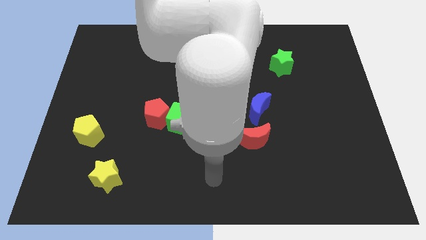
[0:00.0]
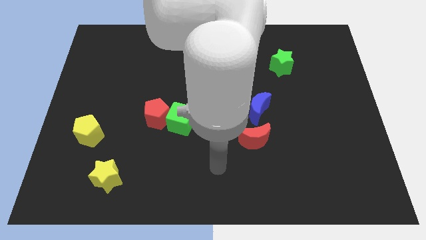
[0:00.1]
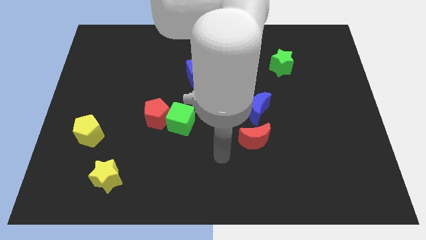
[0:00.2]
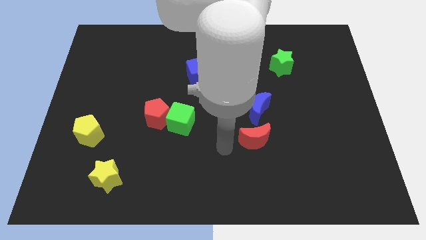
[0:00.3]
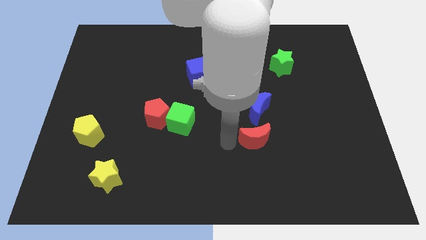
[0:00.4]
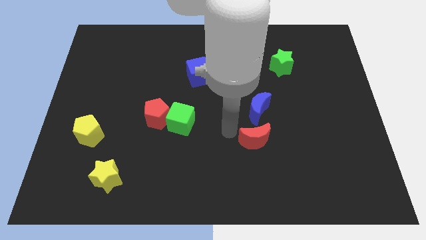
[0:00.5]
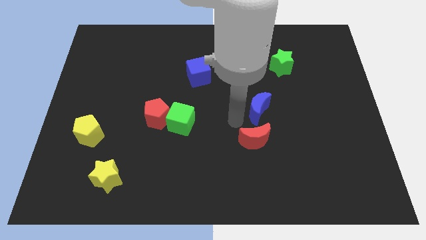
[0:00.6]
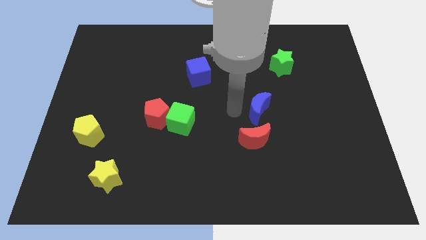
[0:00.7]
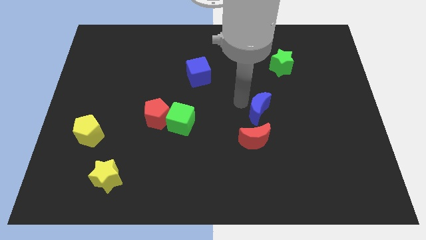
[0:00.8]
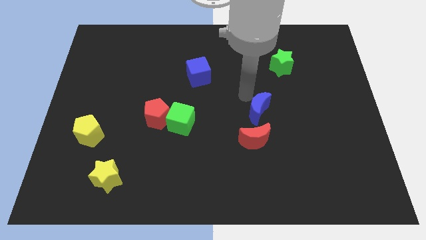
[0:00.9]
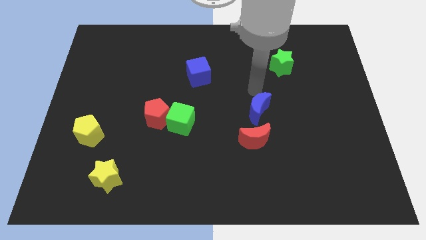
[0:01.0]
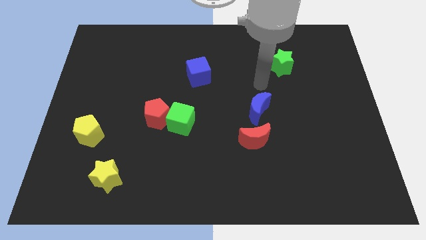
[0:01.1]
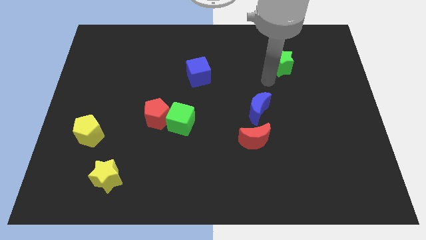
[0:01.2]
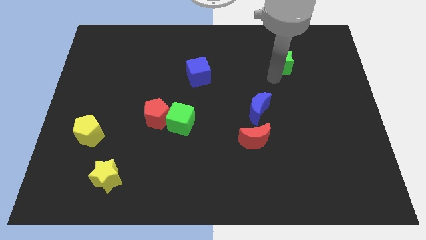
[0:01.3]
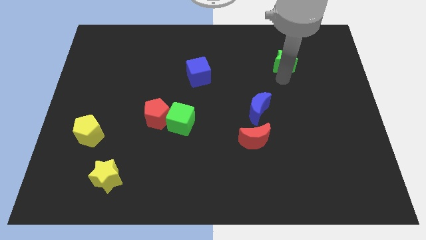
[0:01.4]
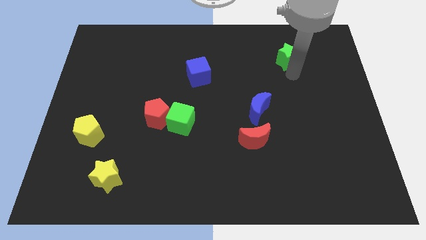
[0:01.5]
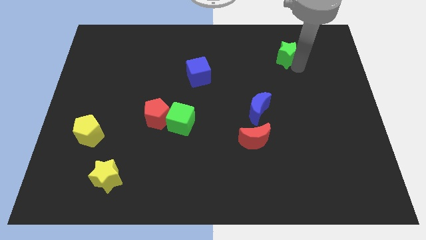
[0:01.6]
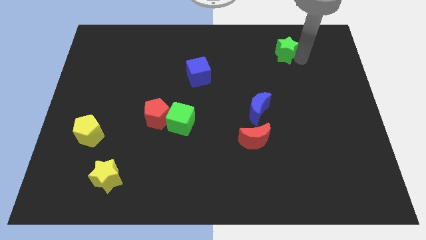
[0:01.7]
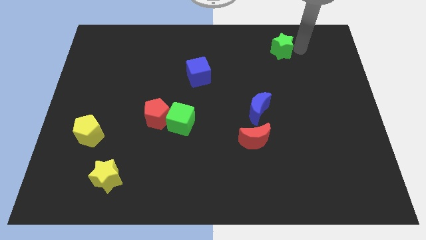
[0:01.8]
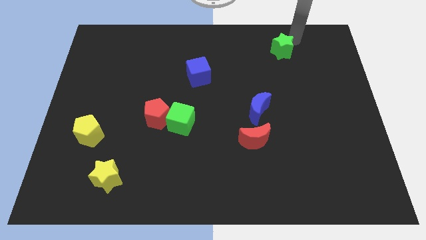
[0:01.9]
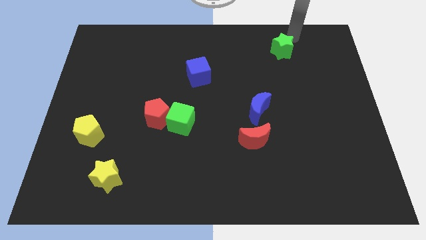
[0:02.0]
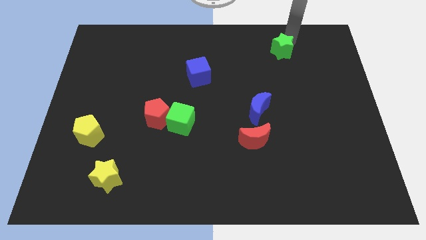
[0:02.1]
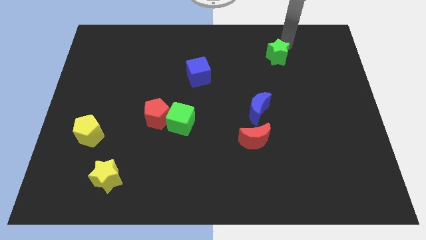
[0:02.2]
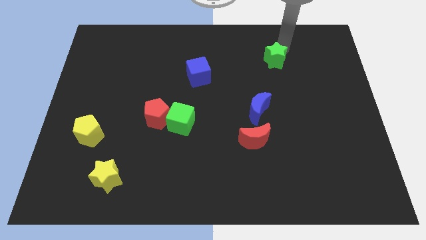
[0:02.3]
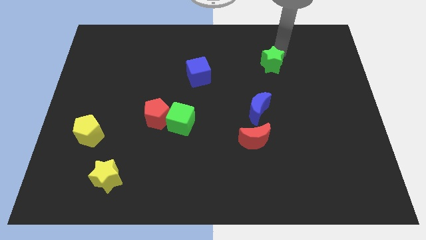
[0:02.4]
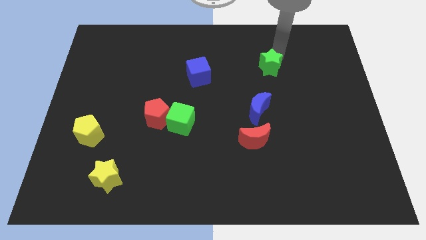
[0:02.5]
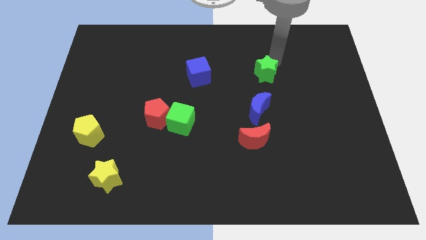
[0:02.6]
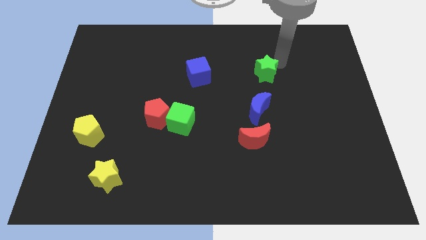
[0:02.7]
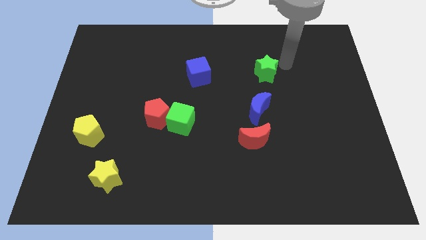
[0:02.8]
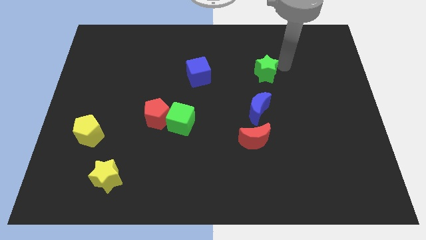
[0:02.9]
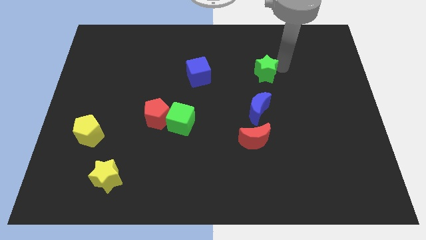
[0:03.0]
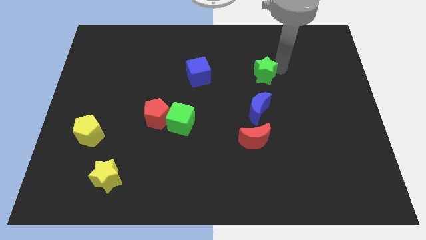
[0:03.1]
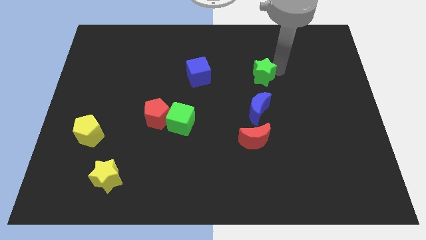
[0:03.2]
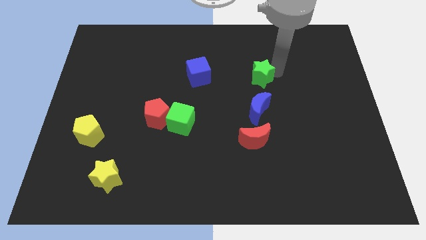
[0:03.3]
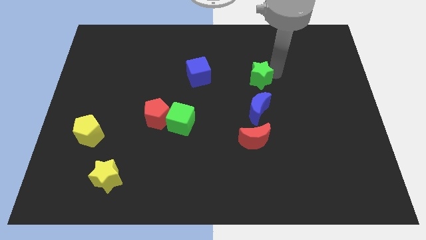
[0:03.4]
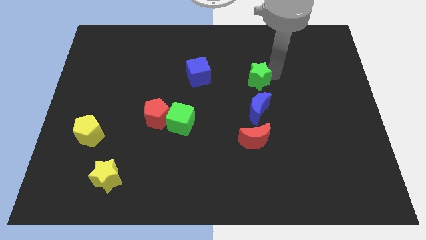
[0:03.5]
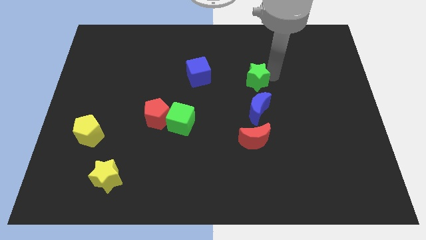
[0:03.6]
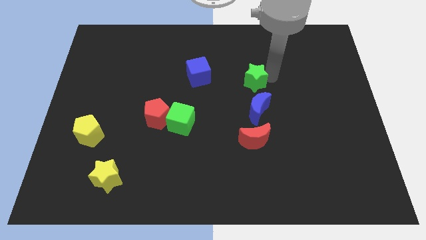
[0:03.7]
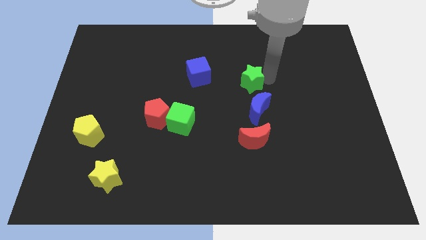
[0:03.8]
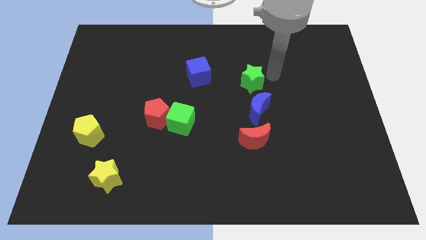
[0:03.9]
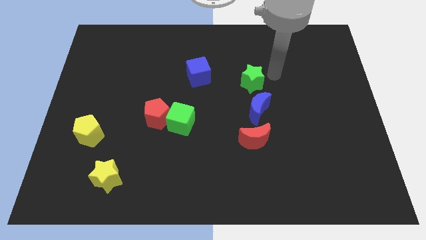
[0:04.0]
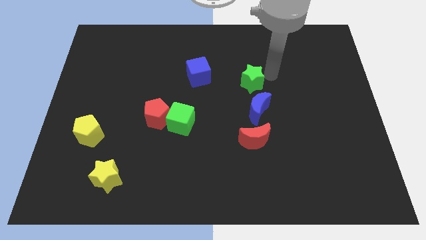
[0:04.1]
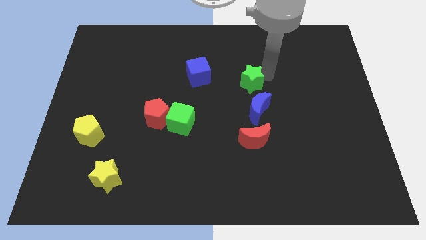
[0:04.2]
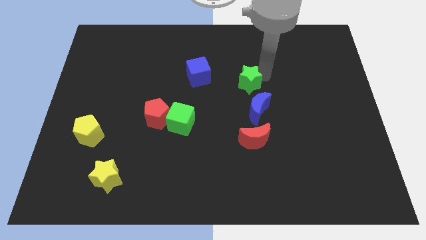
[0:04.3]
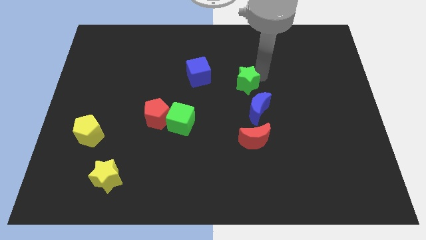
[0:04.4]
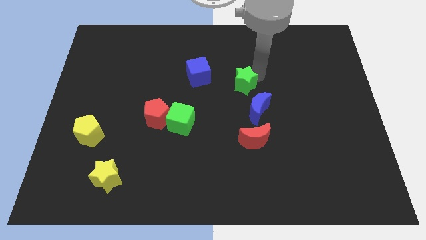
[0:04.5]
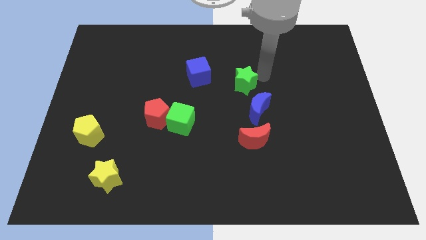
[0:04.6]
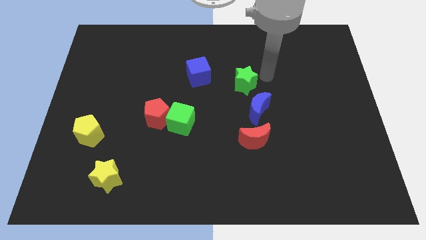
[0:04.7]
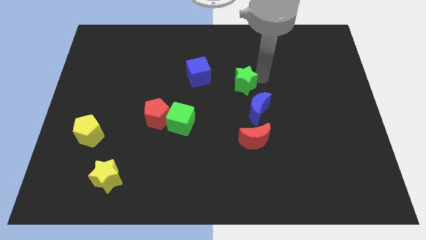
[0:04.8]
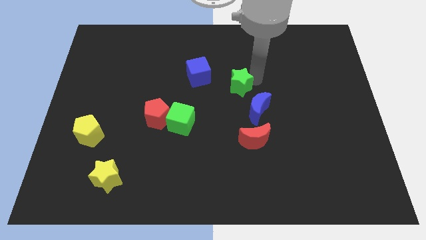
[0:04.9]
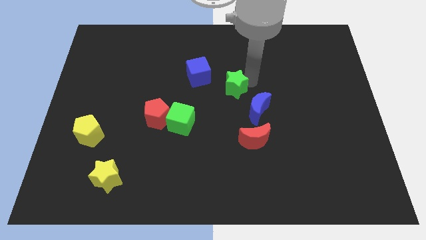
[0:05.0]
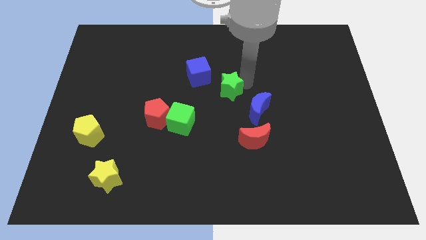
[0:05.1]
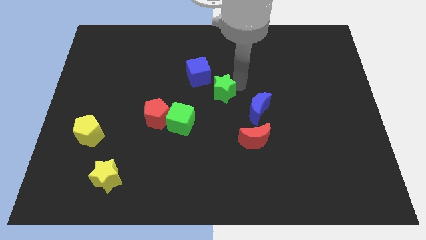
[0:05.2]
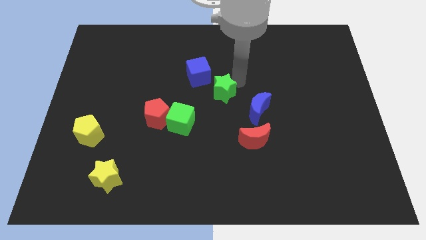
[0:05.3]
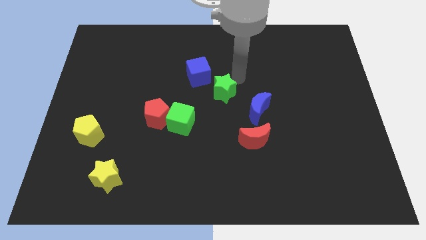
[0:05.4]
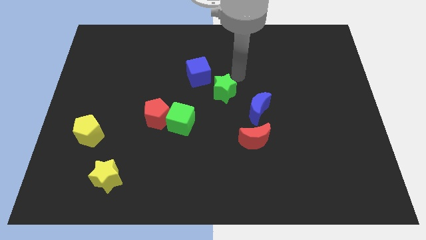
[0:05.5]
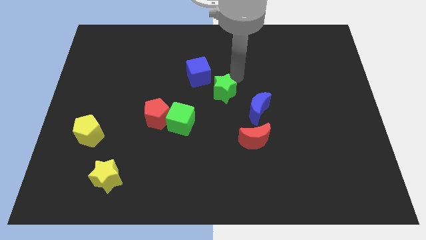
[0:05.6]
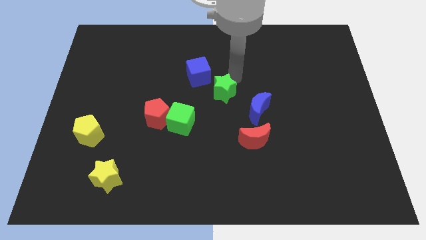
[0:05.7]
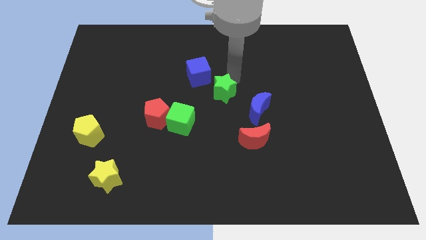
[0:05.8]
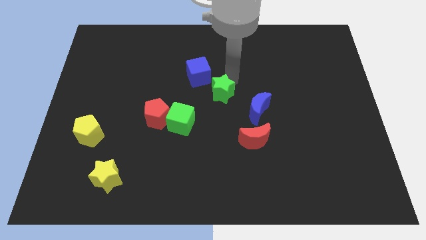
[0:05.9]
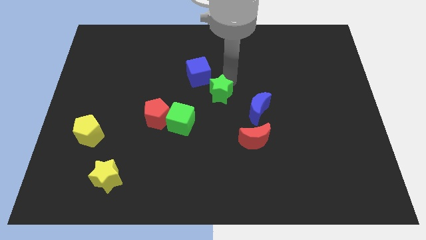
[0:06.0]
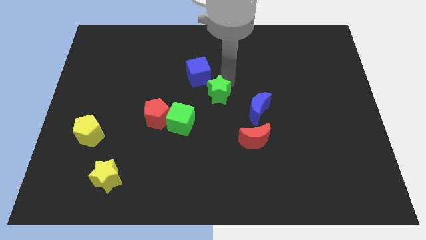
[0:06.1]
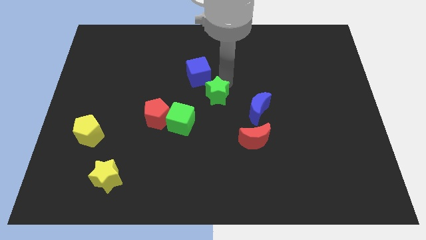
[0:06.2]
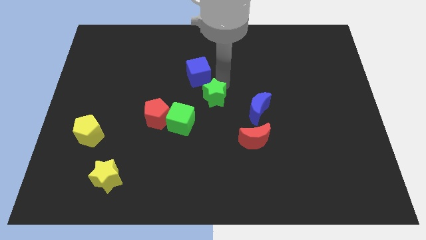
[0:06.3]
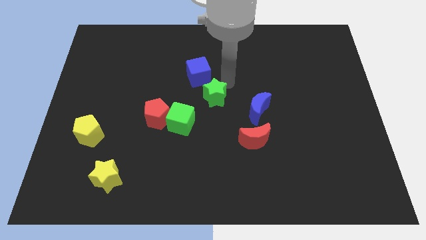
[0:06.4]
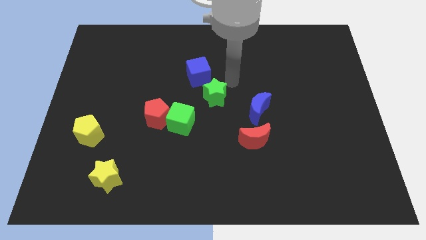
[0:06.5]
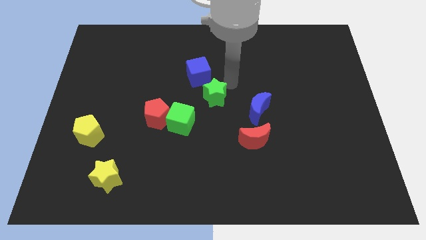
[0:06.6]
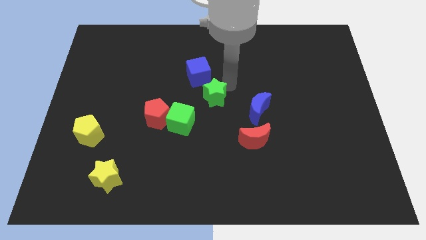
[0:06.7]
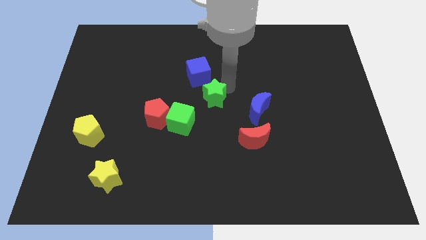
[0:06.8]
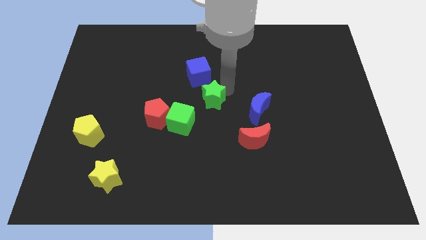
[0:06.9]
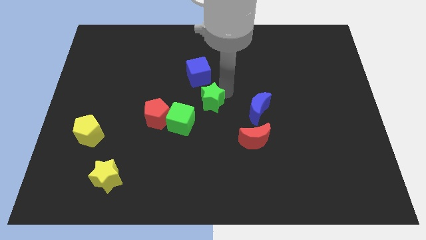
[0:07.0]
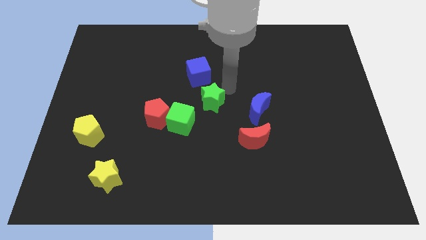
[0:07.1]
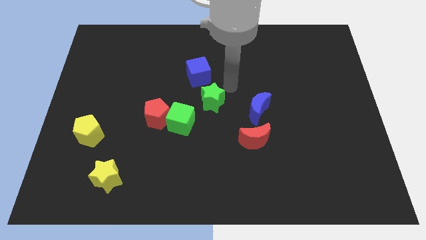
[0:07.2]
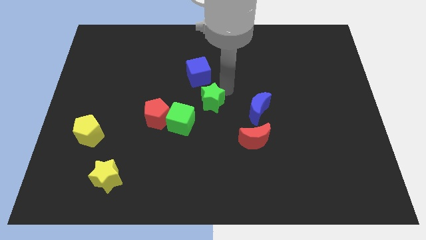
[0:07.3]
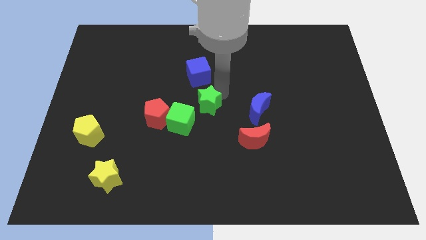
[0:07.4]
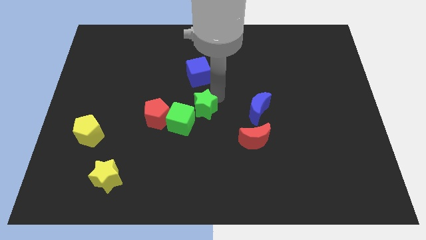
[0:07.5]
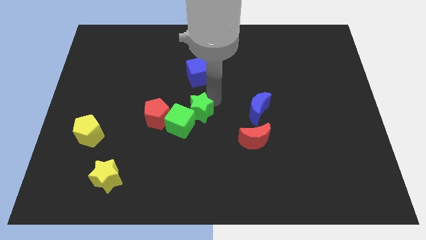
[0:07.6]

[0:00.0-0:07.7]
slide the green star next to the green cube
